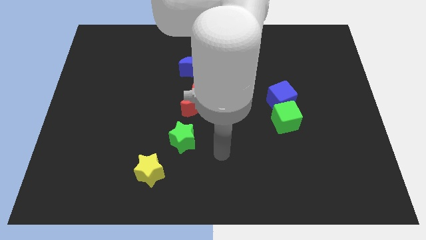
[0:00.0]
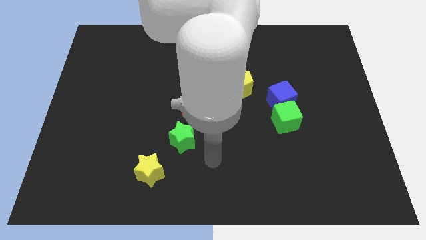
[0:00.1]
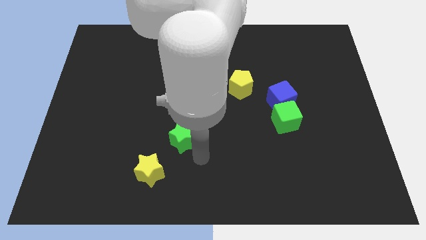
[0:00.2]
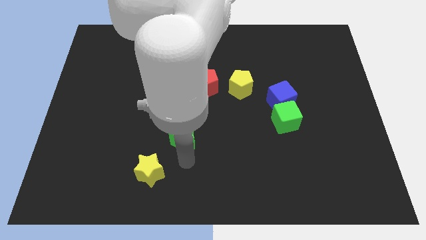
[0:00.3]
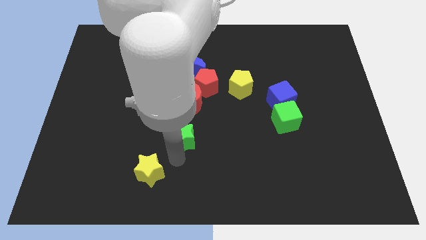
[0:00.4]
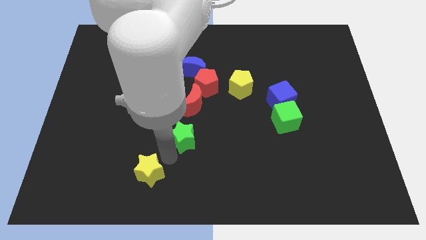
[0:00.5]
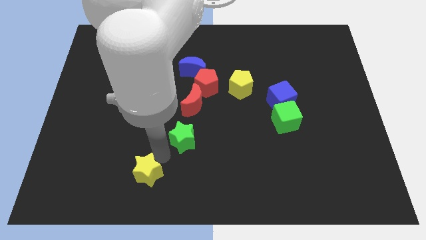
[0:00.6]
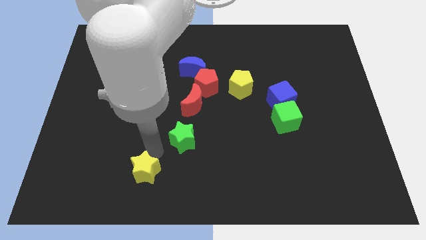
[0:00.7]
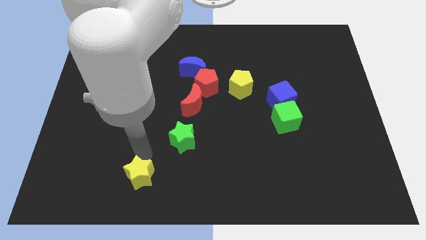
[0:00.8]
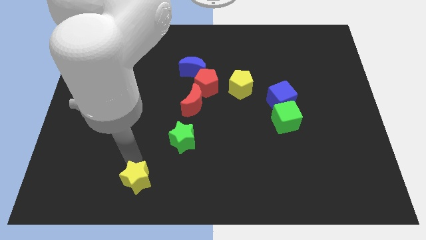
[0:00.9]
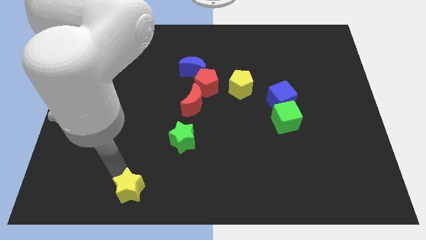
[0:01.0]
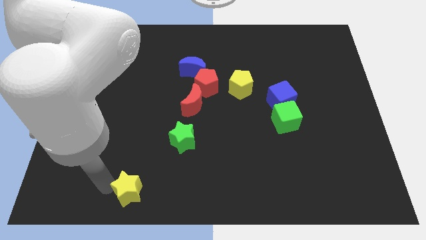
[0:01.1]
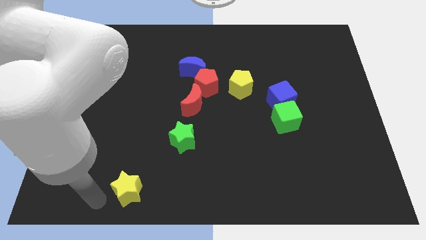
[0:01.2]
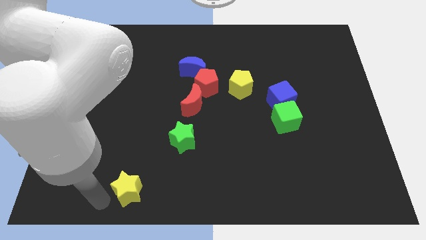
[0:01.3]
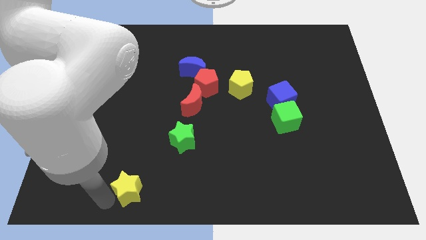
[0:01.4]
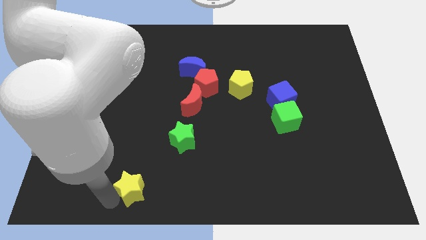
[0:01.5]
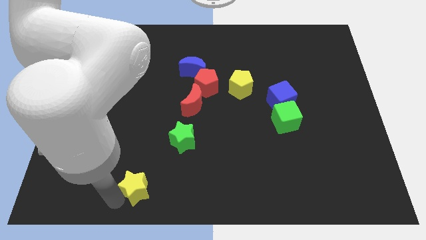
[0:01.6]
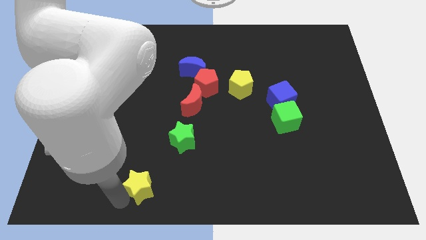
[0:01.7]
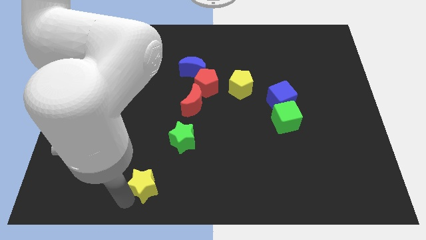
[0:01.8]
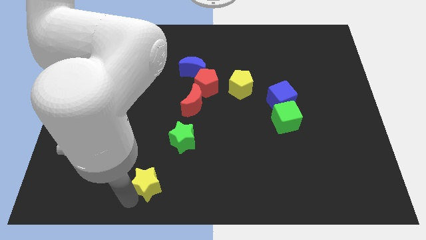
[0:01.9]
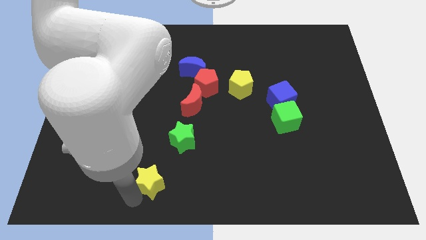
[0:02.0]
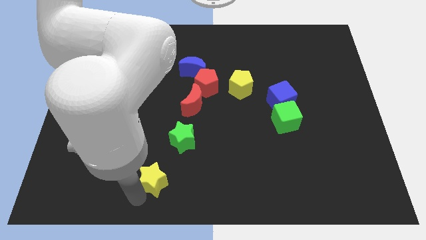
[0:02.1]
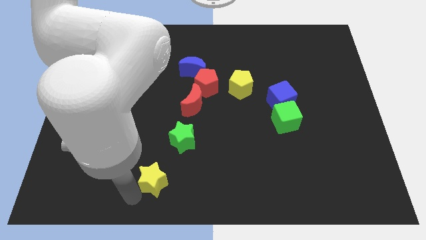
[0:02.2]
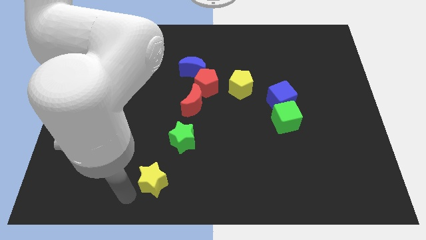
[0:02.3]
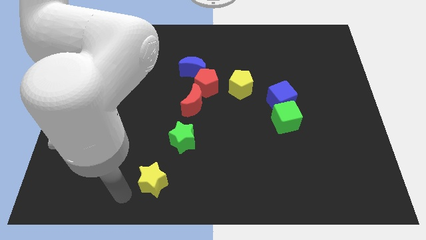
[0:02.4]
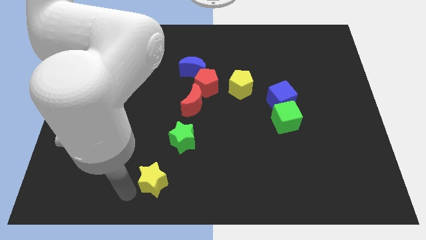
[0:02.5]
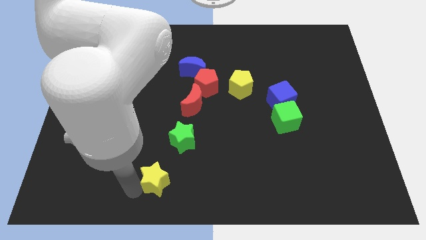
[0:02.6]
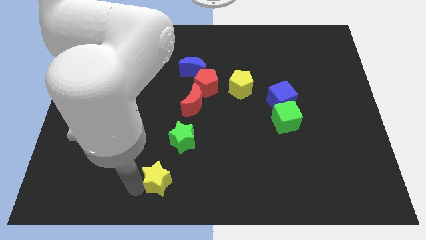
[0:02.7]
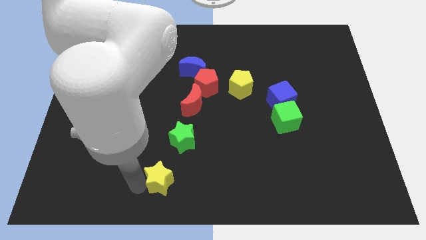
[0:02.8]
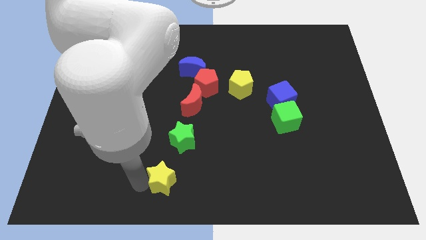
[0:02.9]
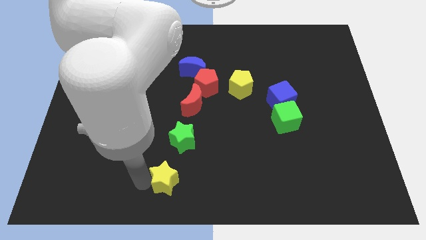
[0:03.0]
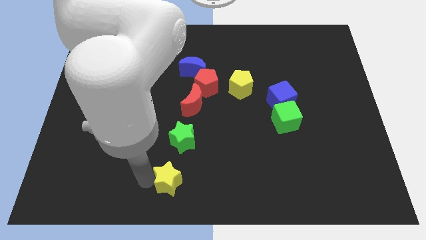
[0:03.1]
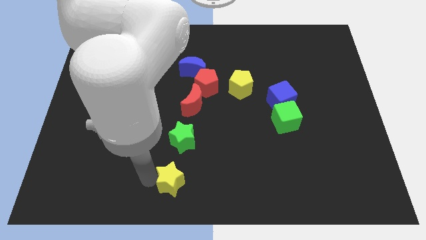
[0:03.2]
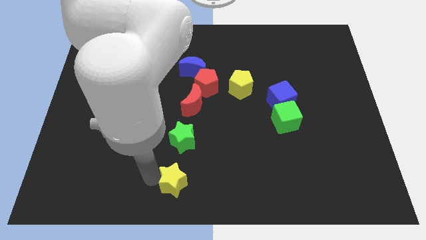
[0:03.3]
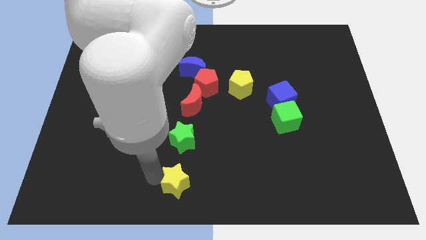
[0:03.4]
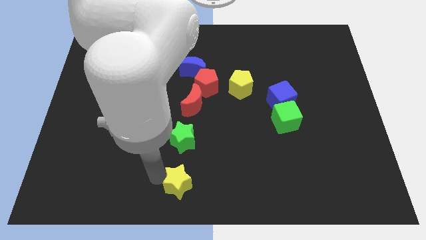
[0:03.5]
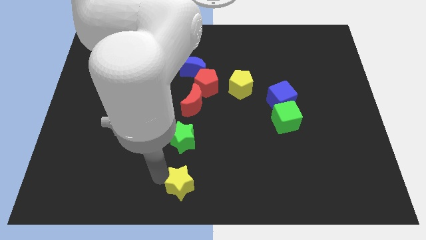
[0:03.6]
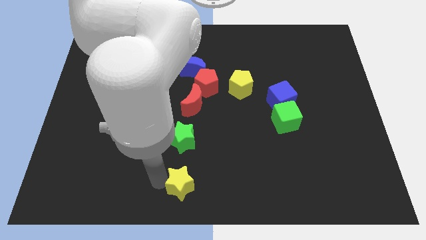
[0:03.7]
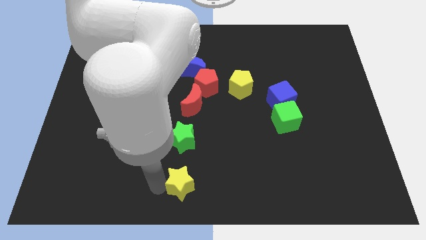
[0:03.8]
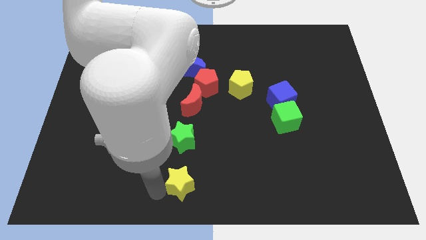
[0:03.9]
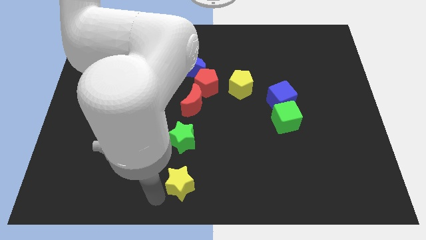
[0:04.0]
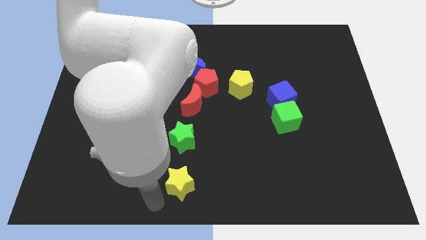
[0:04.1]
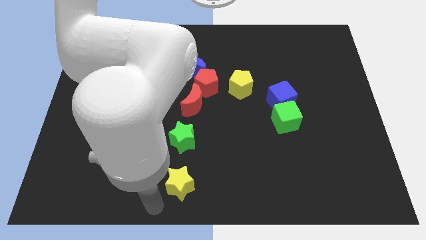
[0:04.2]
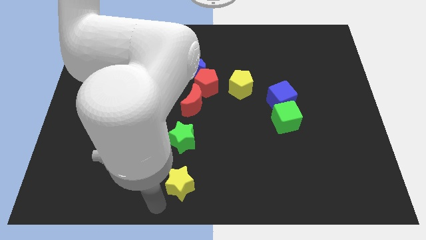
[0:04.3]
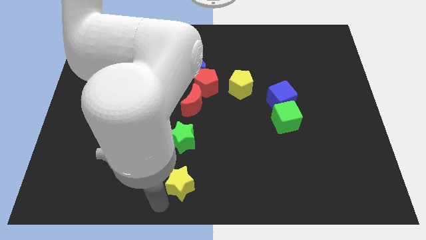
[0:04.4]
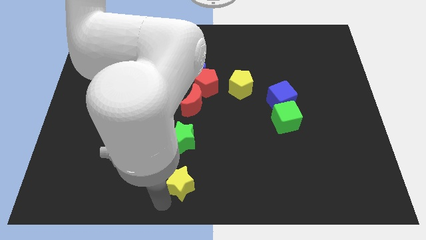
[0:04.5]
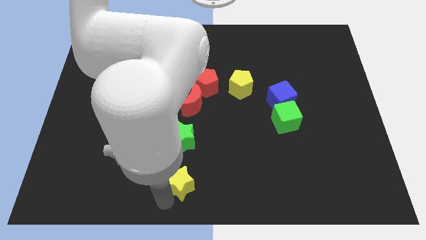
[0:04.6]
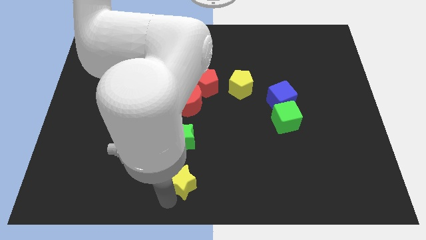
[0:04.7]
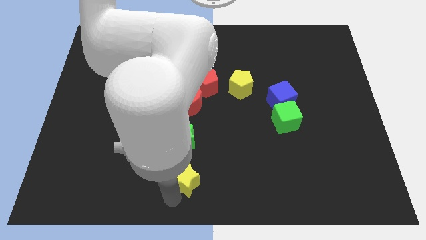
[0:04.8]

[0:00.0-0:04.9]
move the yellow star slightly to the right

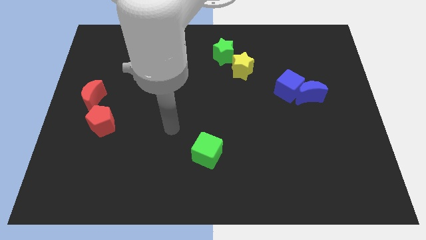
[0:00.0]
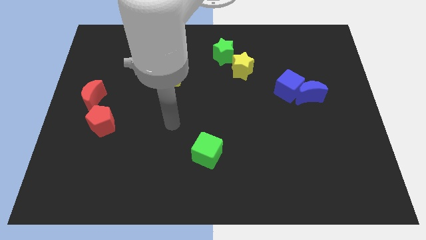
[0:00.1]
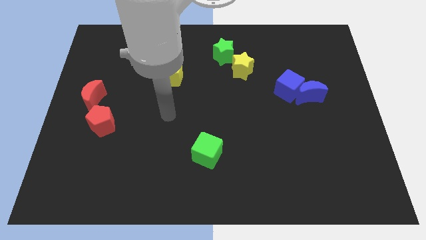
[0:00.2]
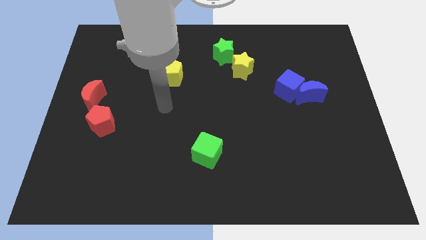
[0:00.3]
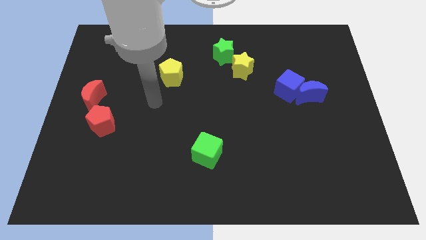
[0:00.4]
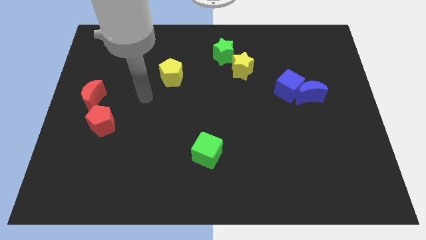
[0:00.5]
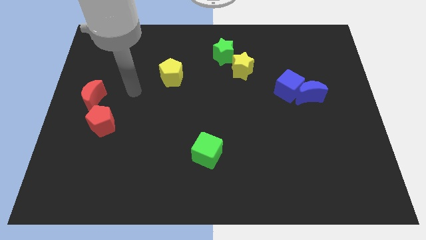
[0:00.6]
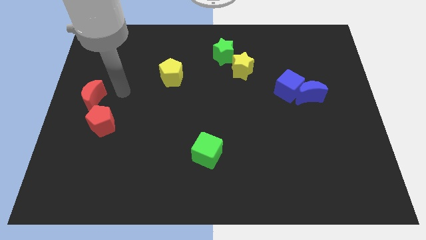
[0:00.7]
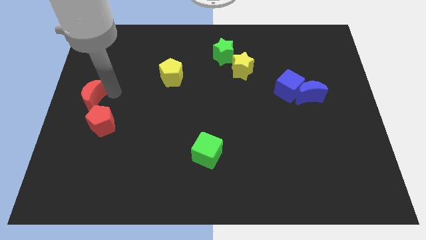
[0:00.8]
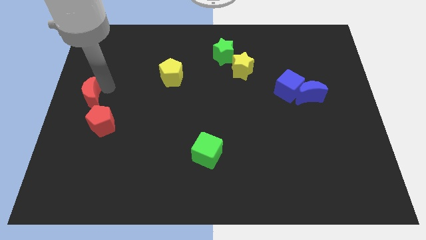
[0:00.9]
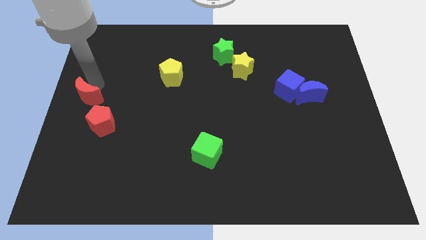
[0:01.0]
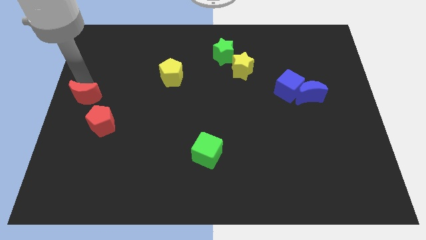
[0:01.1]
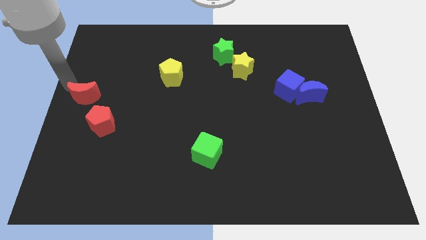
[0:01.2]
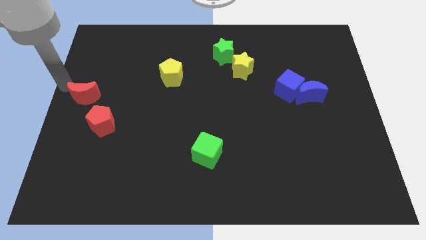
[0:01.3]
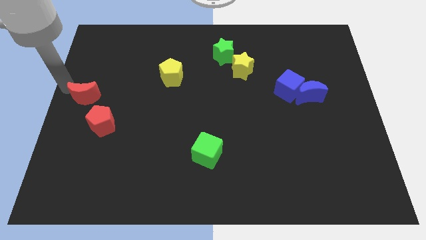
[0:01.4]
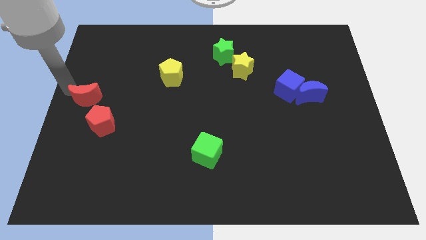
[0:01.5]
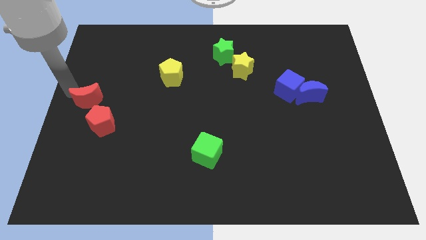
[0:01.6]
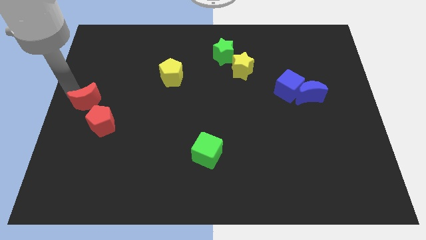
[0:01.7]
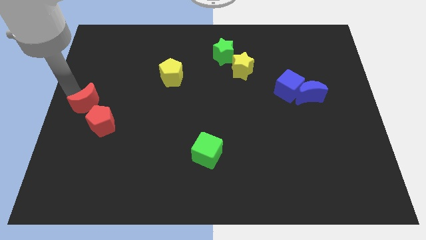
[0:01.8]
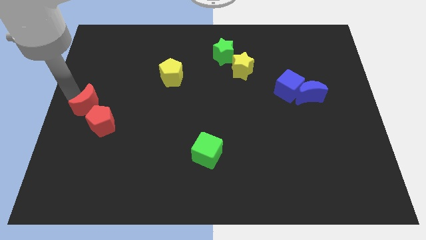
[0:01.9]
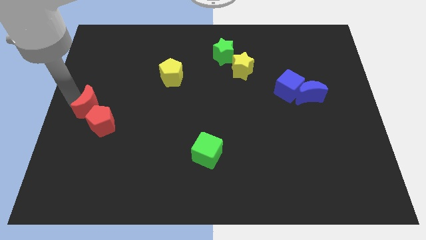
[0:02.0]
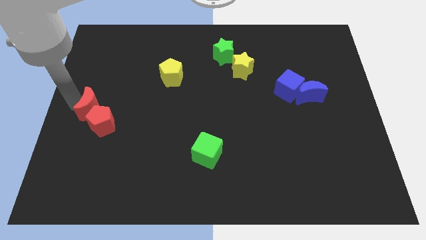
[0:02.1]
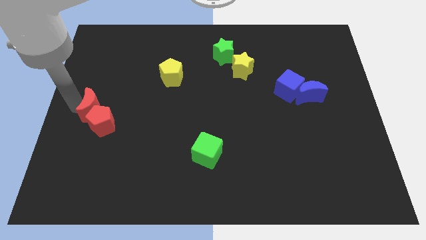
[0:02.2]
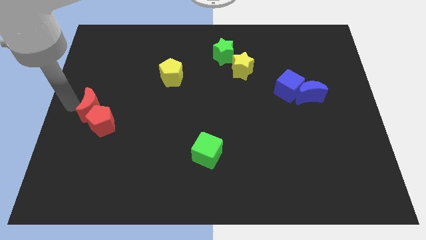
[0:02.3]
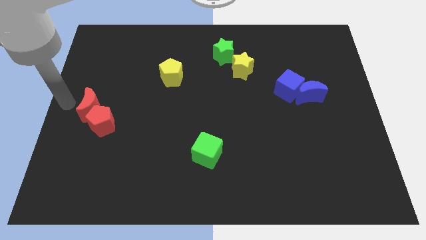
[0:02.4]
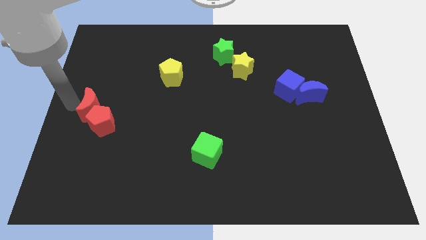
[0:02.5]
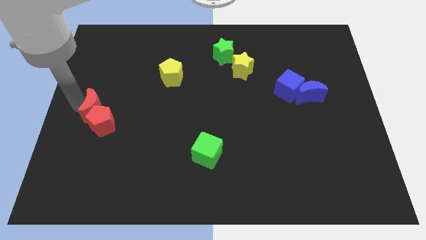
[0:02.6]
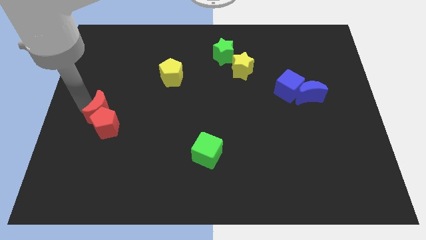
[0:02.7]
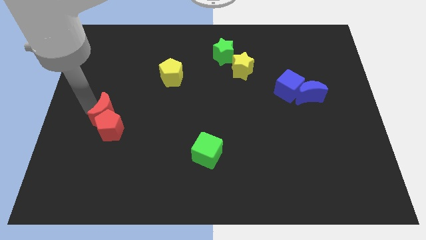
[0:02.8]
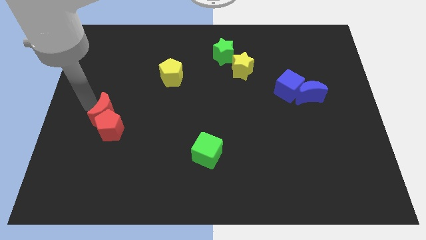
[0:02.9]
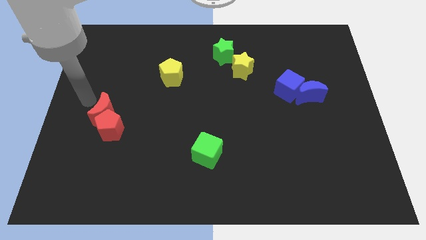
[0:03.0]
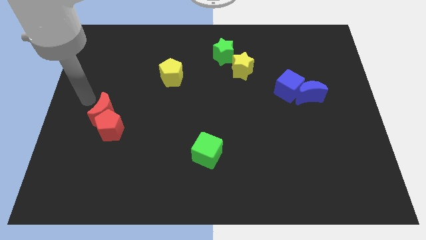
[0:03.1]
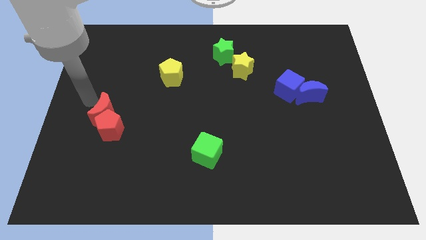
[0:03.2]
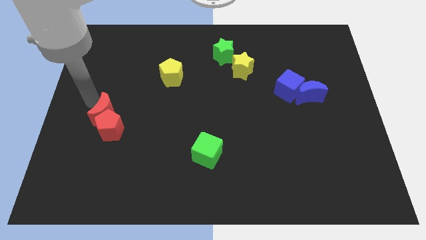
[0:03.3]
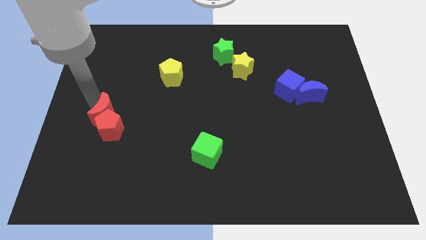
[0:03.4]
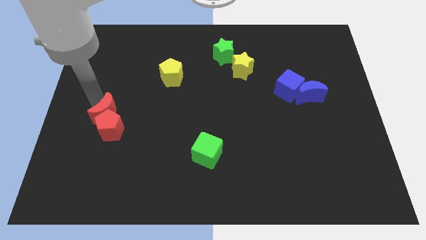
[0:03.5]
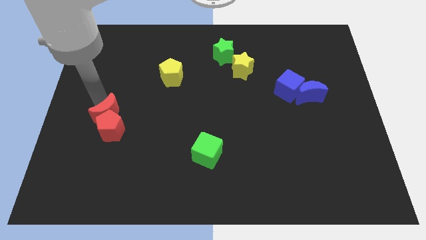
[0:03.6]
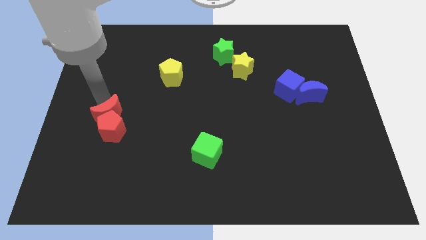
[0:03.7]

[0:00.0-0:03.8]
push the red moon diagonally downwards and right somewhat
